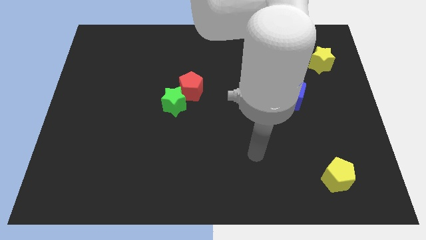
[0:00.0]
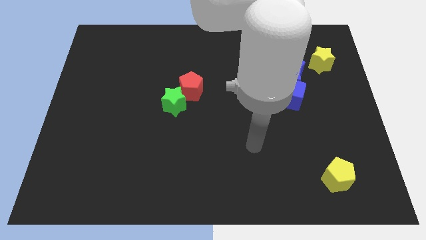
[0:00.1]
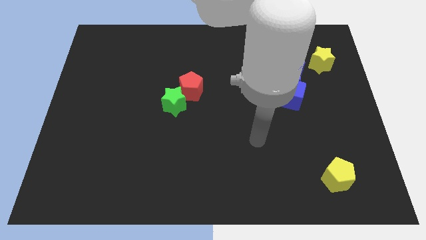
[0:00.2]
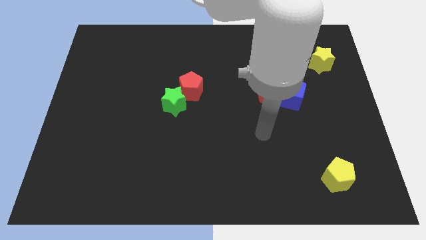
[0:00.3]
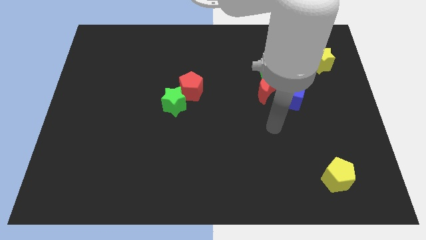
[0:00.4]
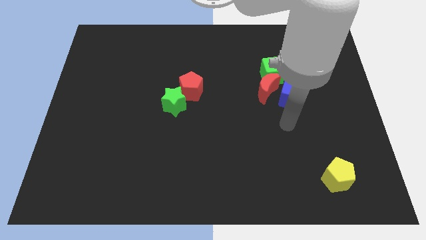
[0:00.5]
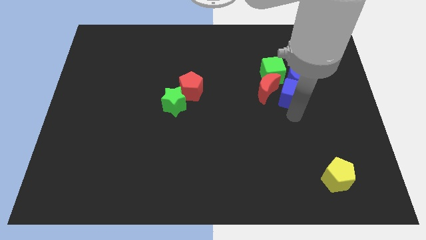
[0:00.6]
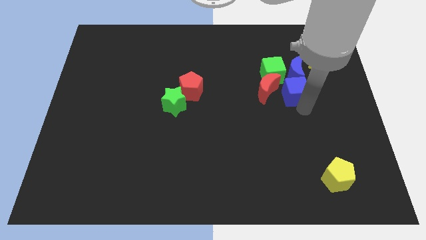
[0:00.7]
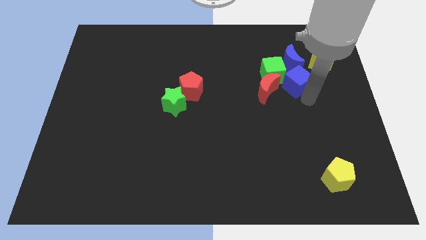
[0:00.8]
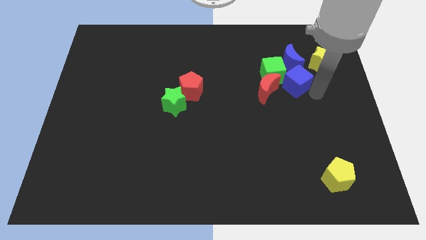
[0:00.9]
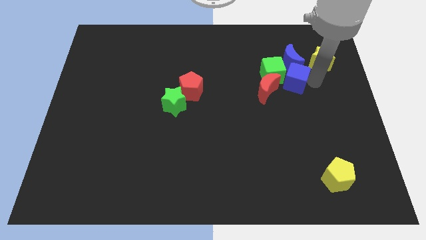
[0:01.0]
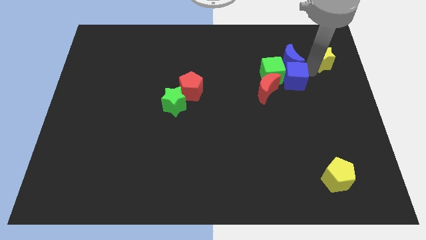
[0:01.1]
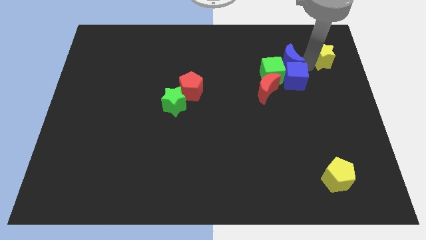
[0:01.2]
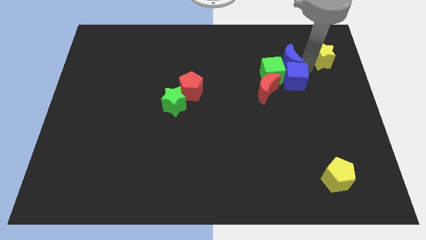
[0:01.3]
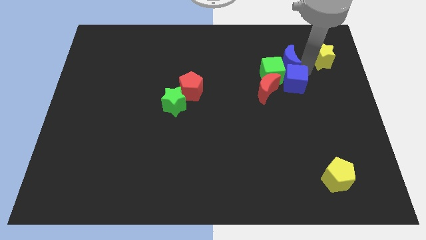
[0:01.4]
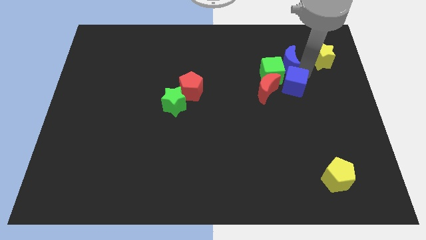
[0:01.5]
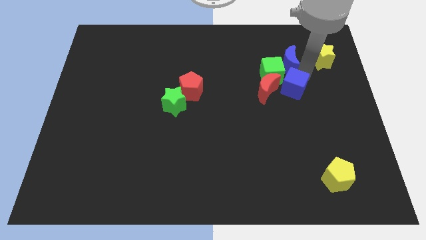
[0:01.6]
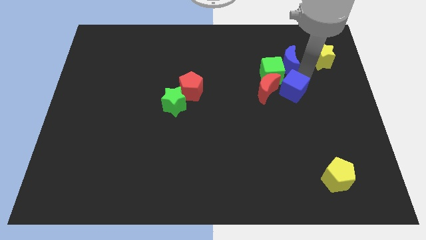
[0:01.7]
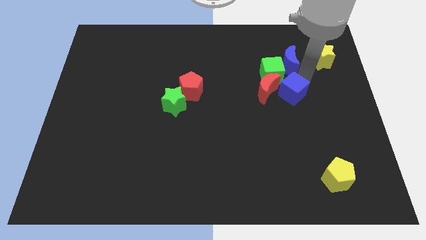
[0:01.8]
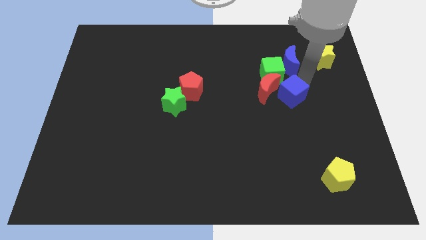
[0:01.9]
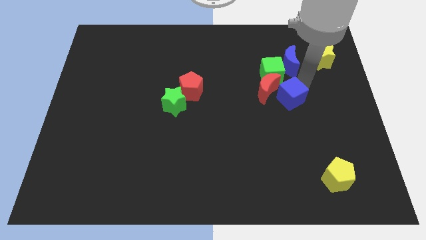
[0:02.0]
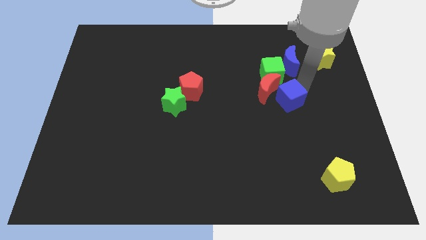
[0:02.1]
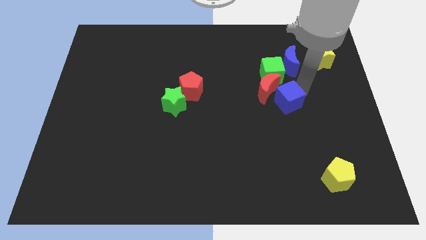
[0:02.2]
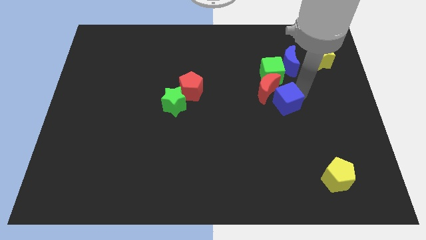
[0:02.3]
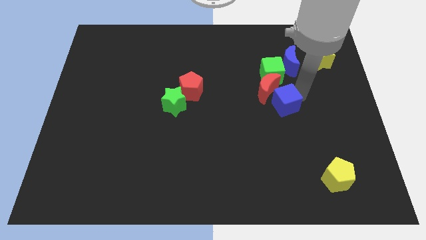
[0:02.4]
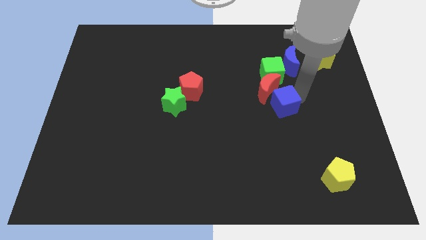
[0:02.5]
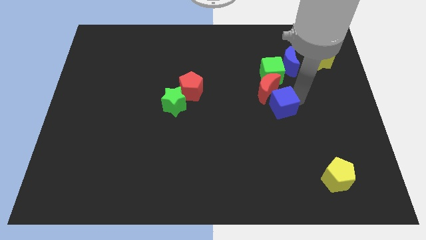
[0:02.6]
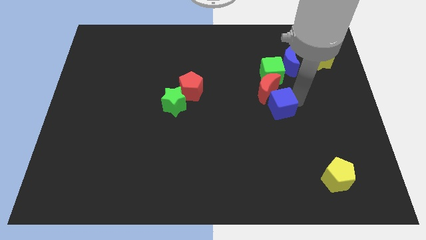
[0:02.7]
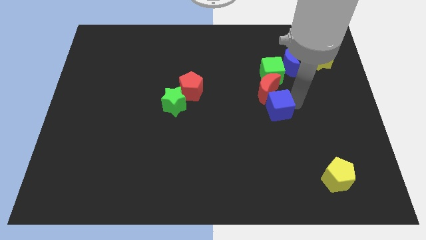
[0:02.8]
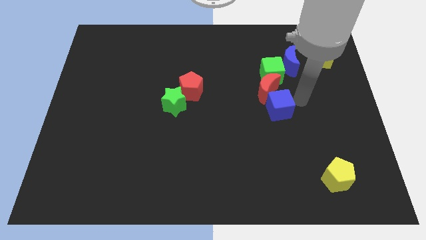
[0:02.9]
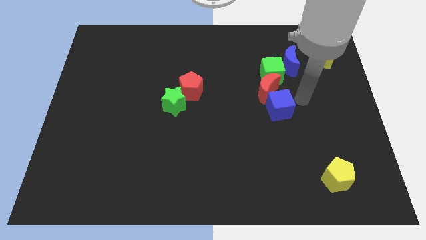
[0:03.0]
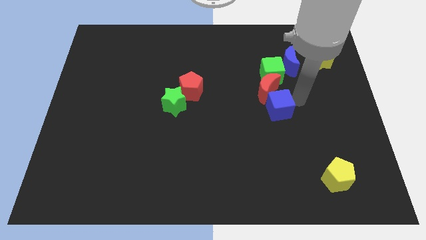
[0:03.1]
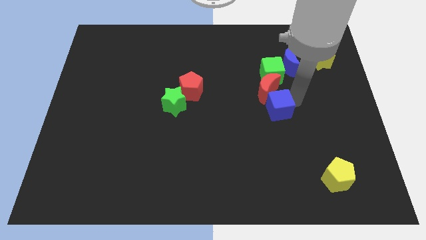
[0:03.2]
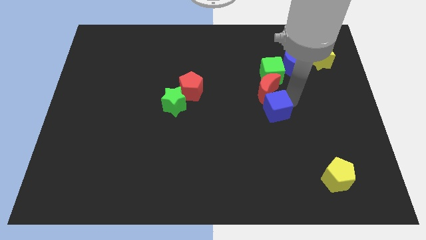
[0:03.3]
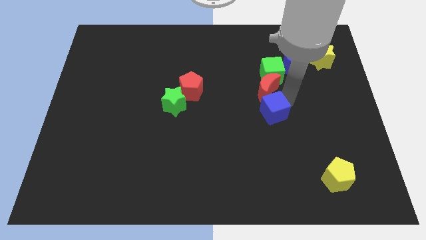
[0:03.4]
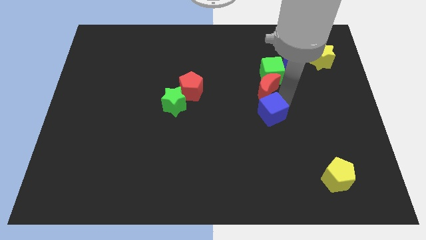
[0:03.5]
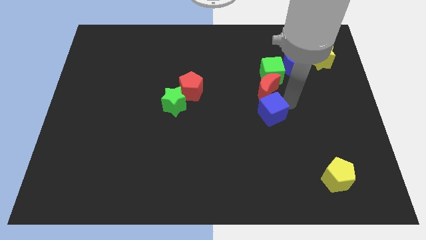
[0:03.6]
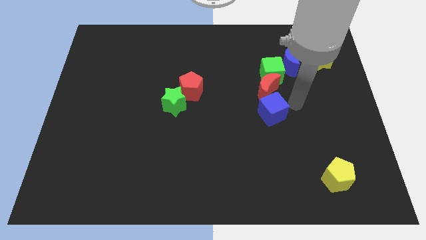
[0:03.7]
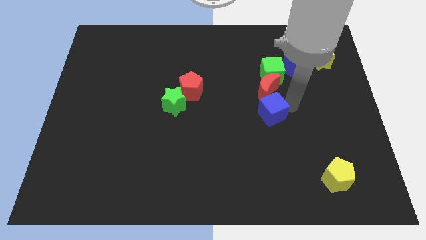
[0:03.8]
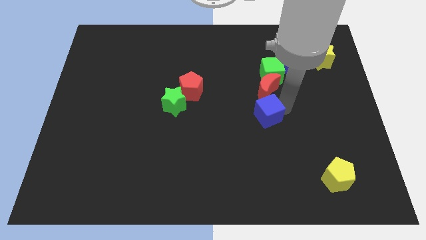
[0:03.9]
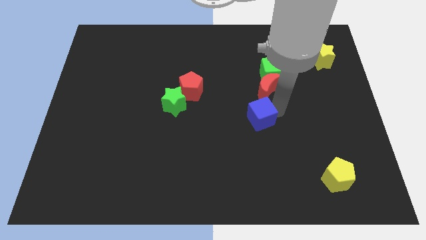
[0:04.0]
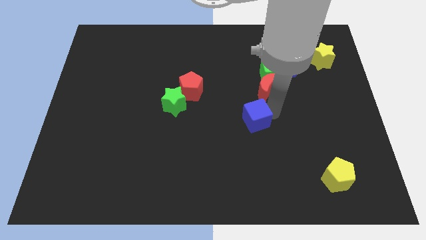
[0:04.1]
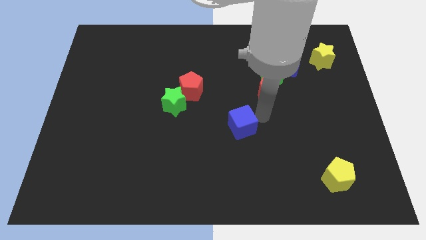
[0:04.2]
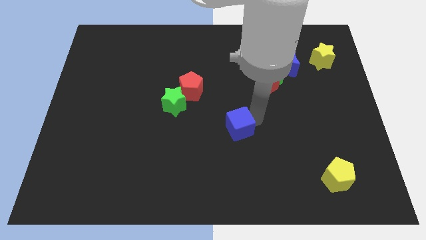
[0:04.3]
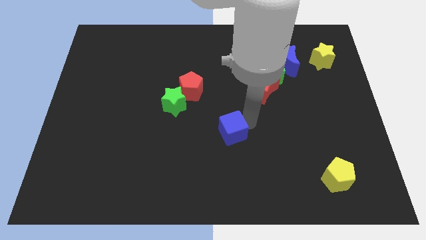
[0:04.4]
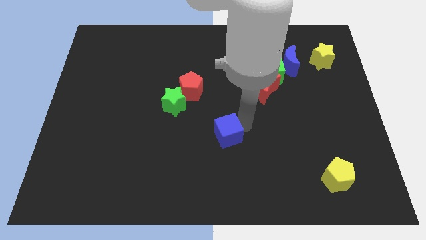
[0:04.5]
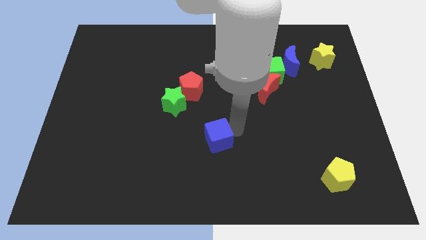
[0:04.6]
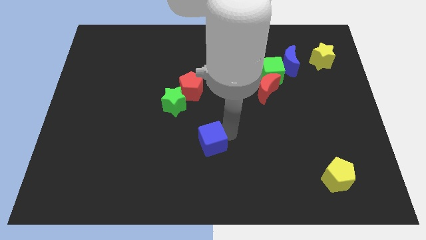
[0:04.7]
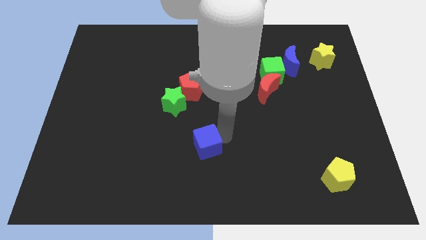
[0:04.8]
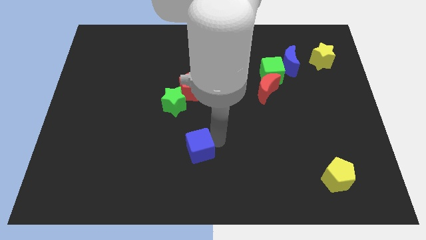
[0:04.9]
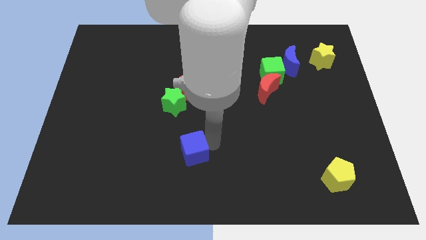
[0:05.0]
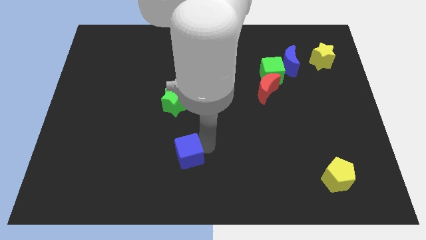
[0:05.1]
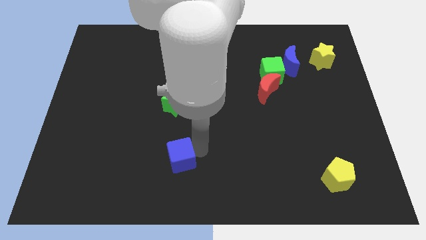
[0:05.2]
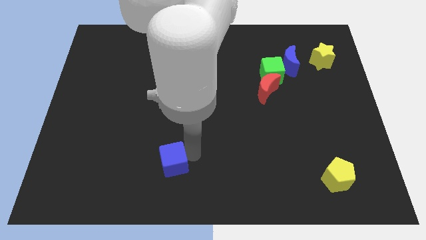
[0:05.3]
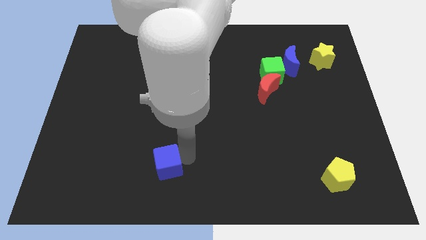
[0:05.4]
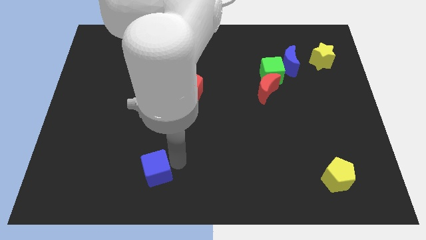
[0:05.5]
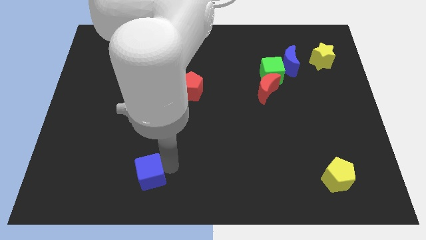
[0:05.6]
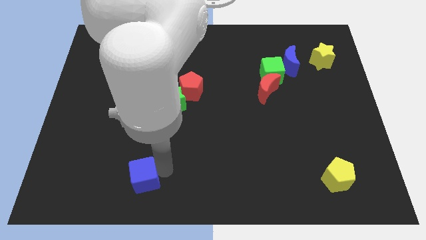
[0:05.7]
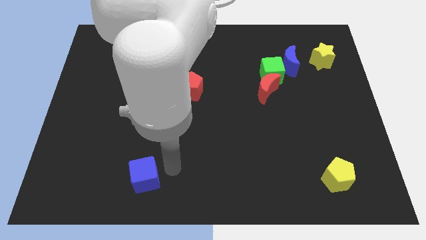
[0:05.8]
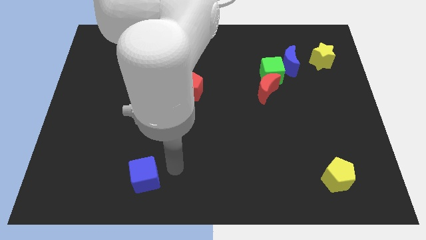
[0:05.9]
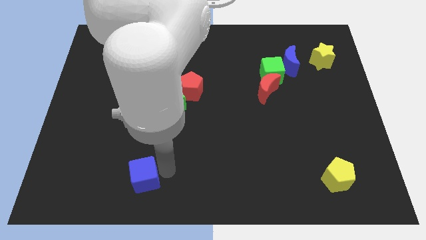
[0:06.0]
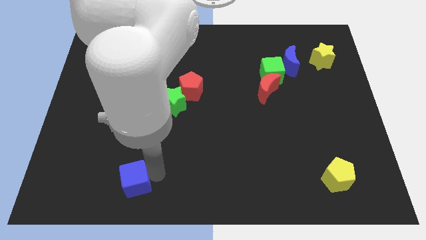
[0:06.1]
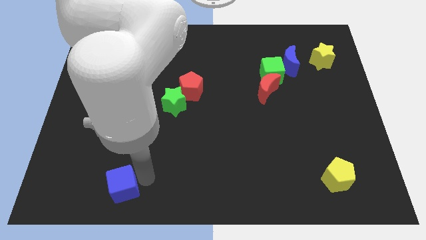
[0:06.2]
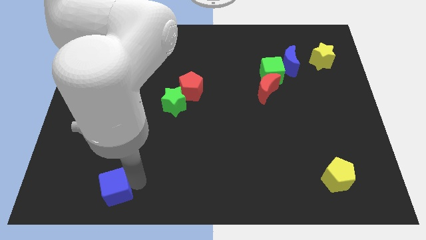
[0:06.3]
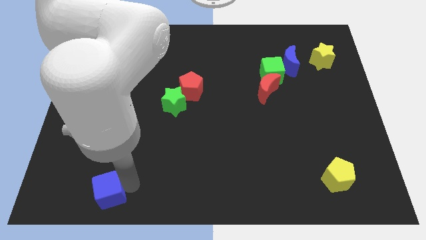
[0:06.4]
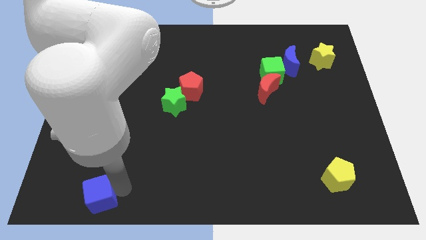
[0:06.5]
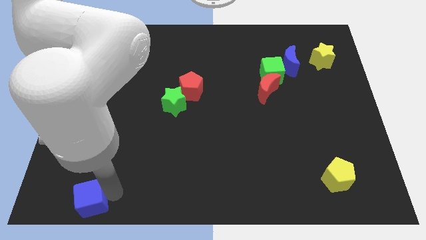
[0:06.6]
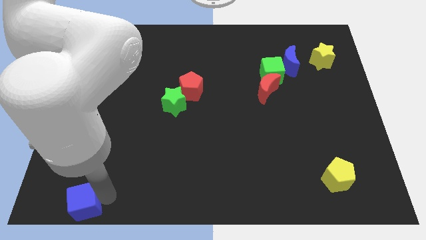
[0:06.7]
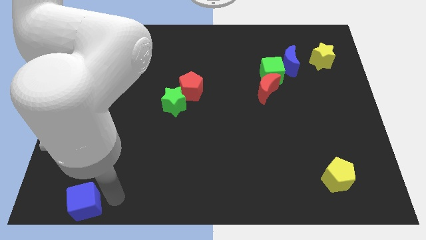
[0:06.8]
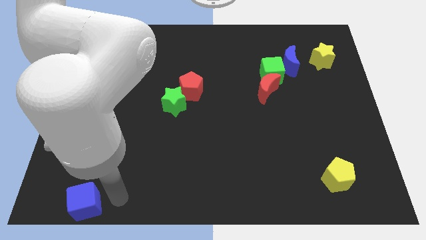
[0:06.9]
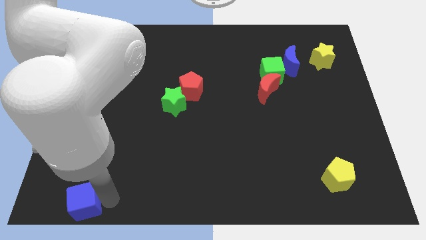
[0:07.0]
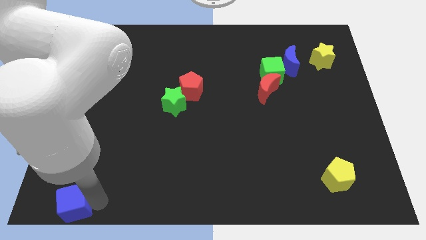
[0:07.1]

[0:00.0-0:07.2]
move the blue cube to the bottom left of the board
